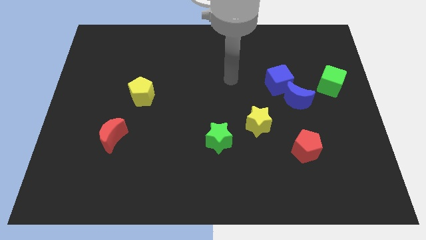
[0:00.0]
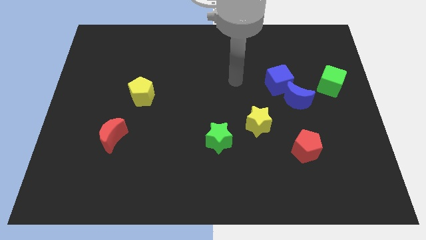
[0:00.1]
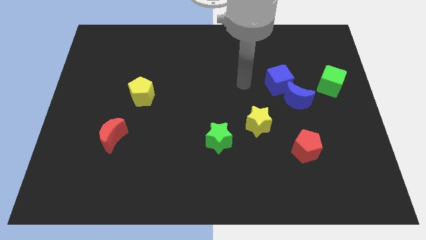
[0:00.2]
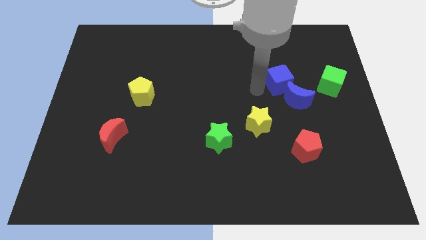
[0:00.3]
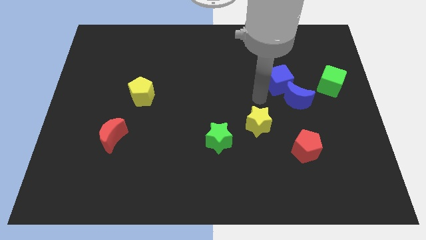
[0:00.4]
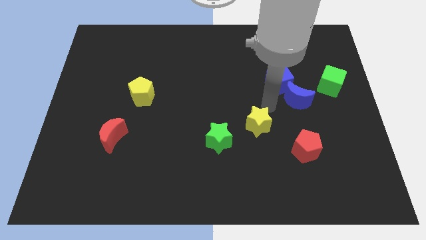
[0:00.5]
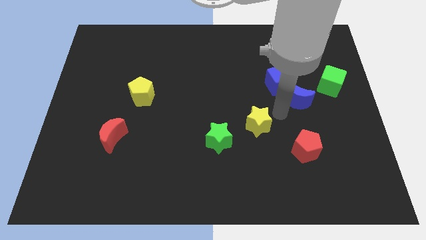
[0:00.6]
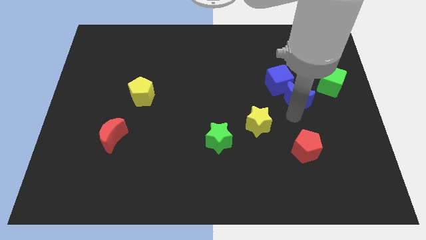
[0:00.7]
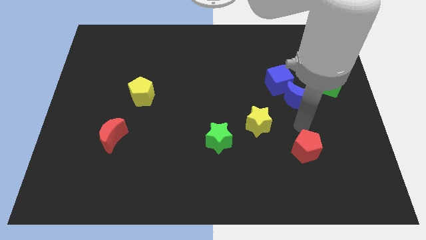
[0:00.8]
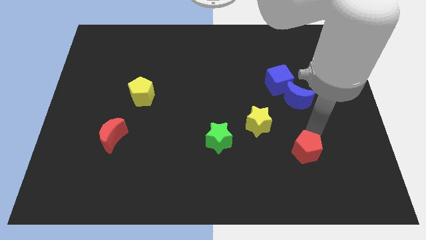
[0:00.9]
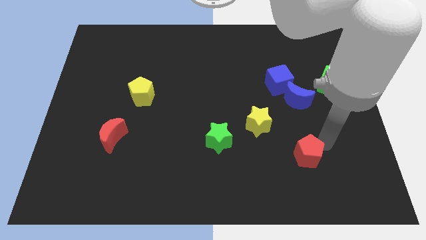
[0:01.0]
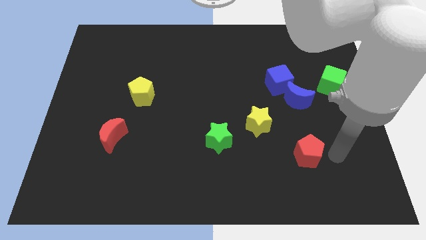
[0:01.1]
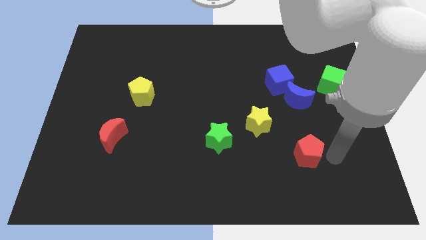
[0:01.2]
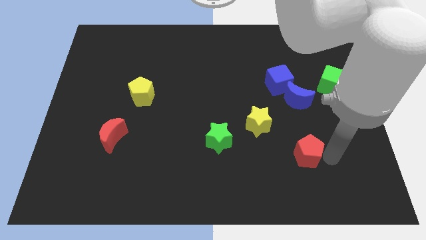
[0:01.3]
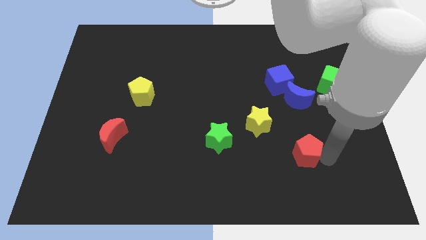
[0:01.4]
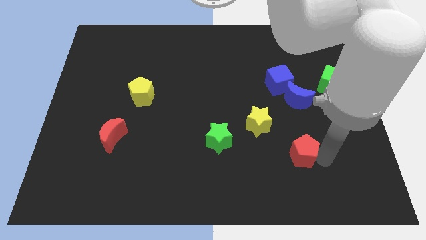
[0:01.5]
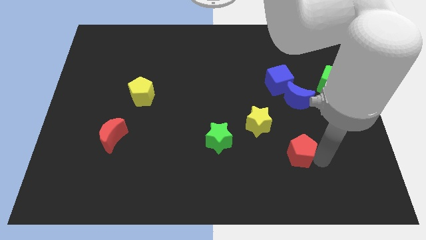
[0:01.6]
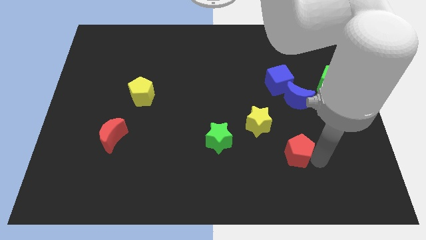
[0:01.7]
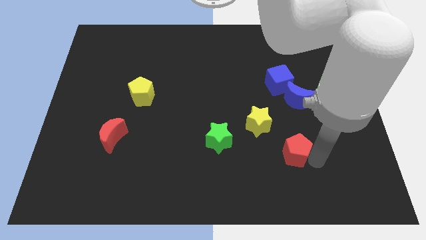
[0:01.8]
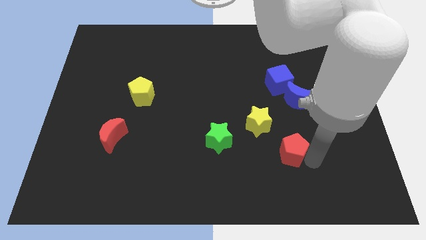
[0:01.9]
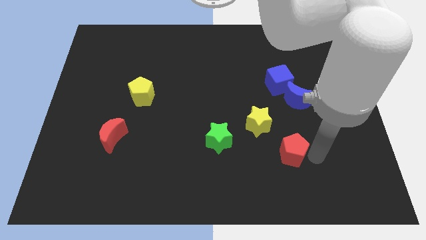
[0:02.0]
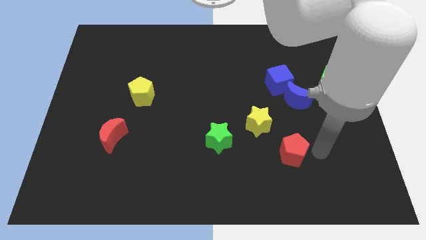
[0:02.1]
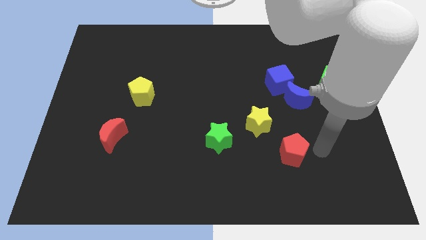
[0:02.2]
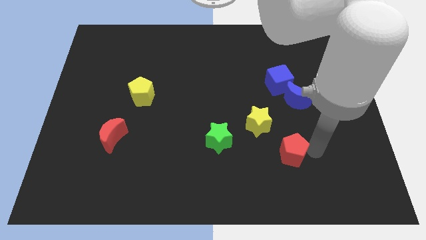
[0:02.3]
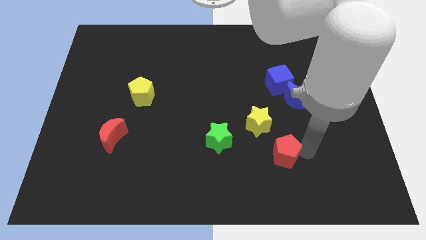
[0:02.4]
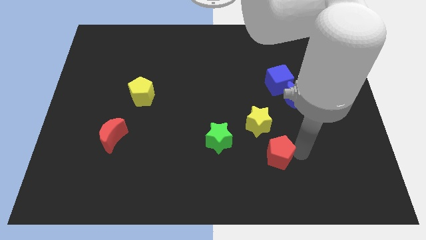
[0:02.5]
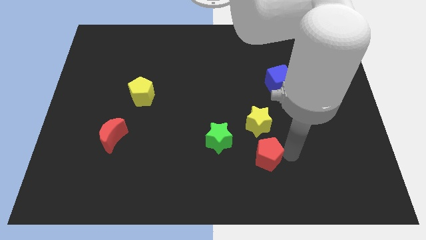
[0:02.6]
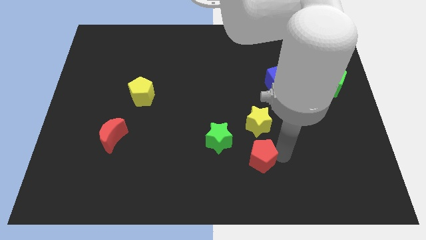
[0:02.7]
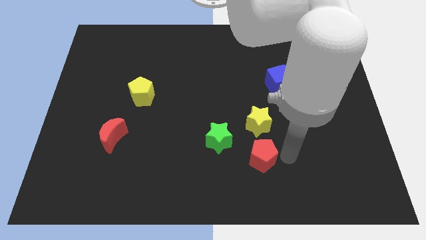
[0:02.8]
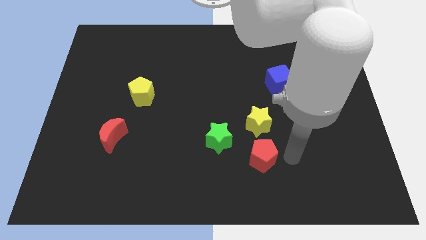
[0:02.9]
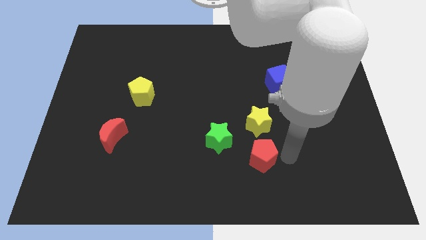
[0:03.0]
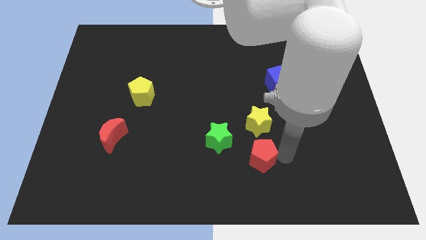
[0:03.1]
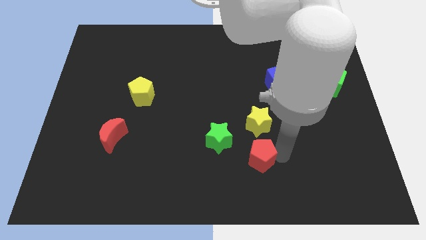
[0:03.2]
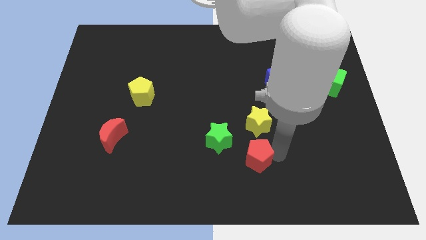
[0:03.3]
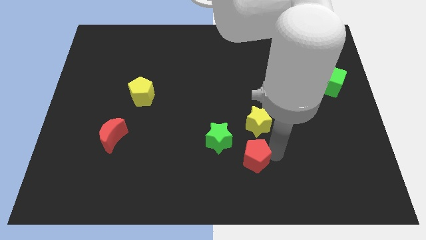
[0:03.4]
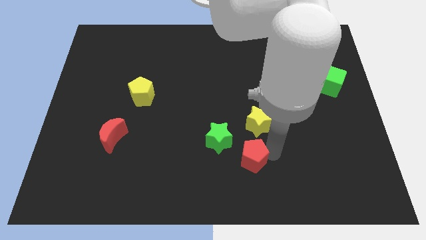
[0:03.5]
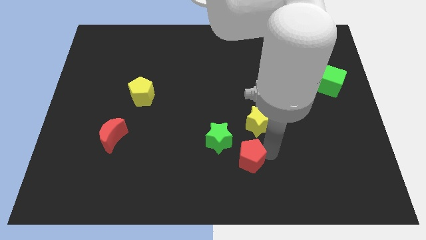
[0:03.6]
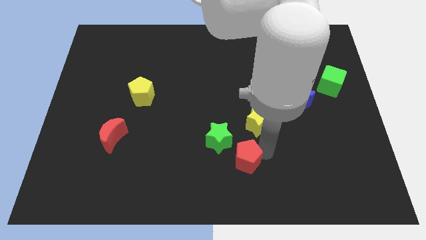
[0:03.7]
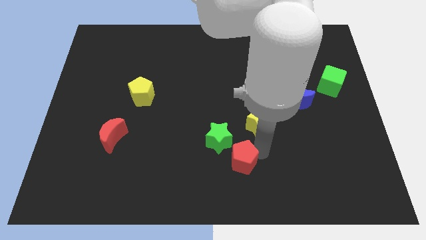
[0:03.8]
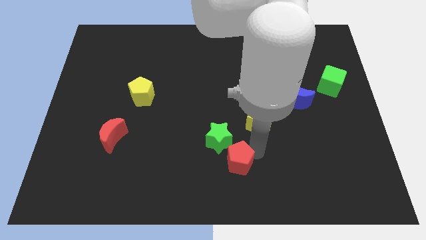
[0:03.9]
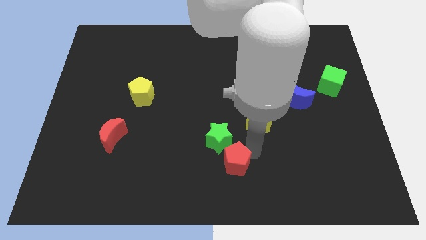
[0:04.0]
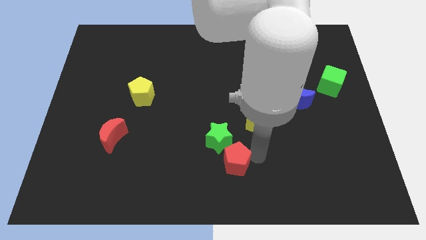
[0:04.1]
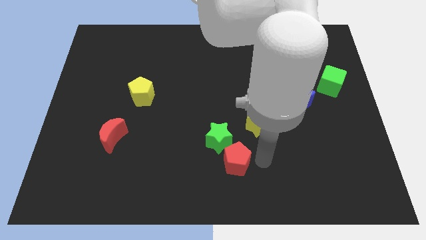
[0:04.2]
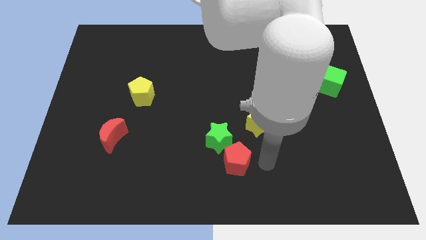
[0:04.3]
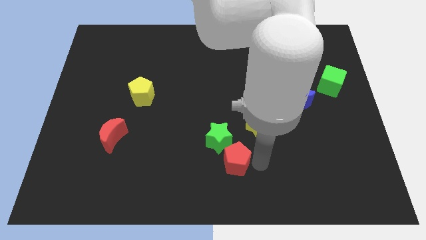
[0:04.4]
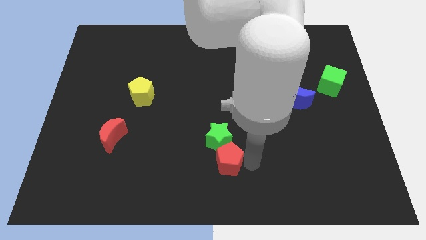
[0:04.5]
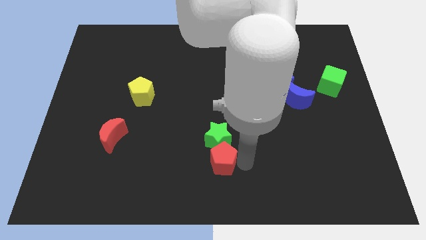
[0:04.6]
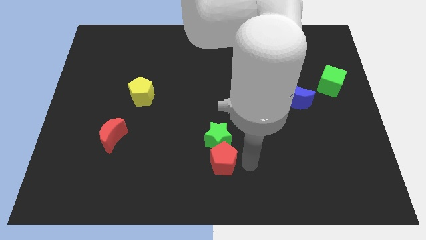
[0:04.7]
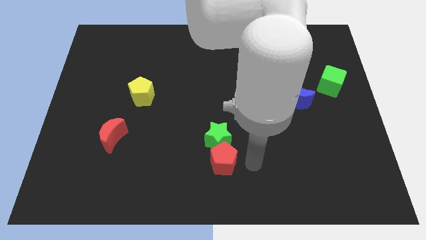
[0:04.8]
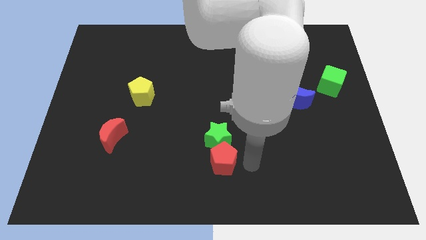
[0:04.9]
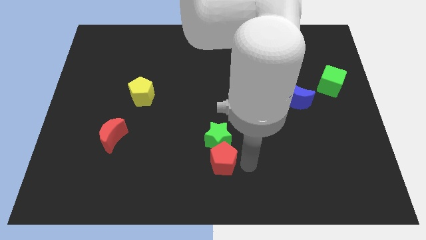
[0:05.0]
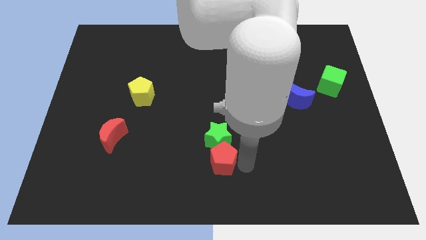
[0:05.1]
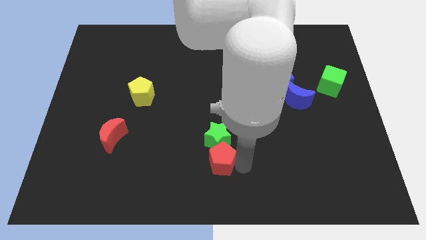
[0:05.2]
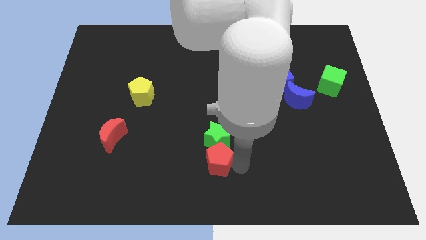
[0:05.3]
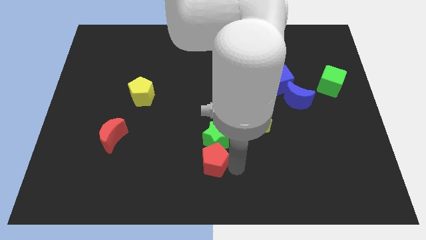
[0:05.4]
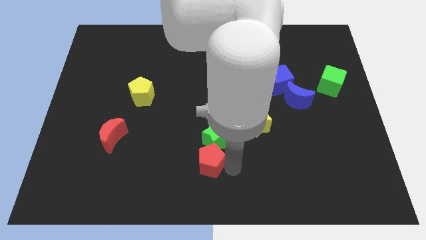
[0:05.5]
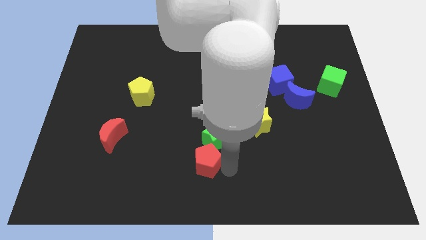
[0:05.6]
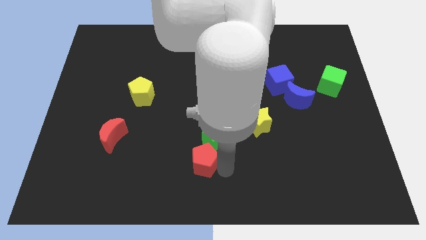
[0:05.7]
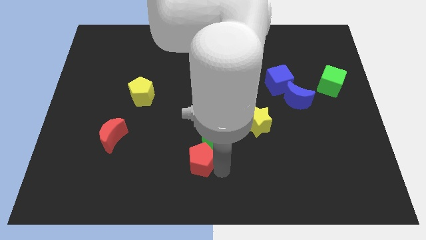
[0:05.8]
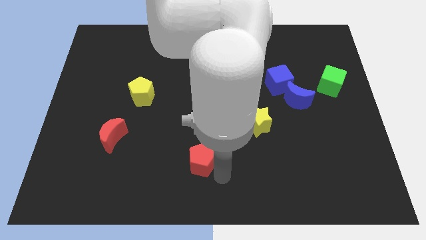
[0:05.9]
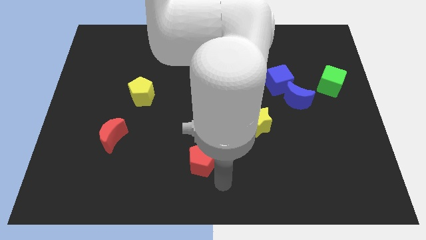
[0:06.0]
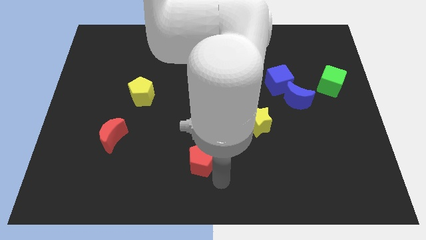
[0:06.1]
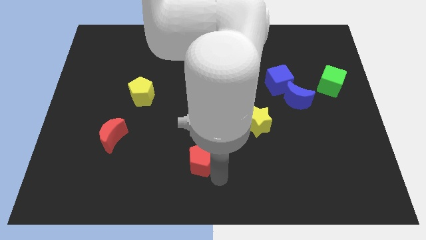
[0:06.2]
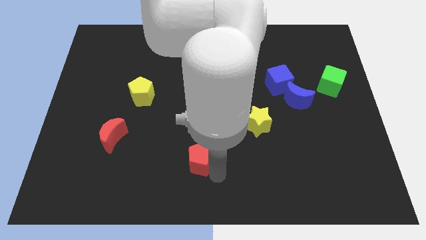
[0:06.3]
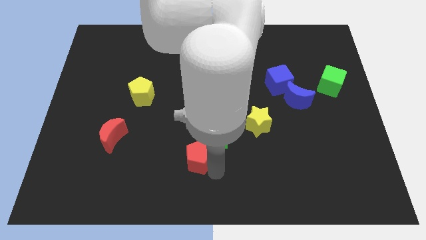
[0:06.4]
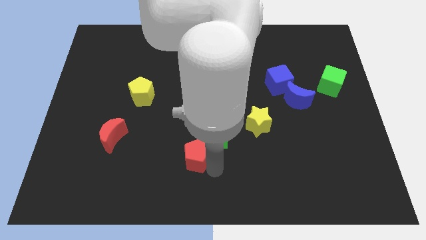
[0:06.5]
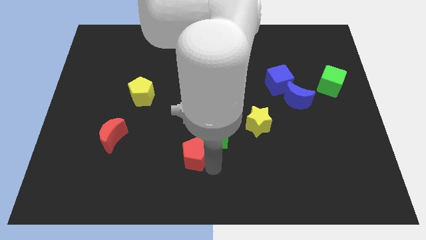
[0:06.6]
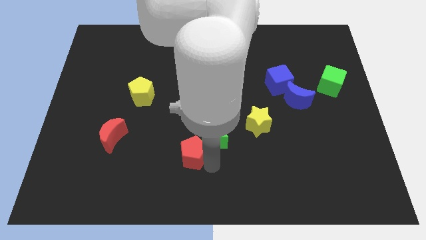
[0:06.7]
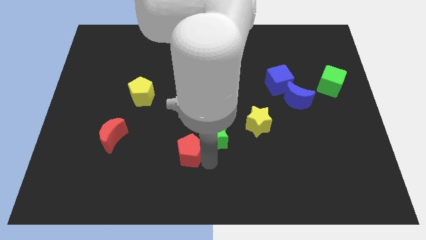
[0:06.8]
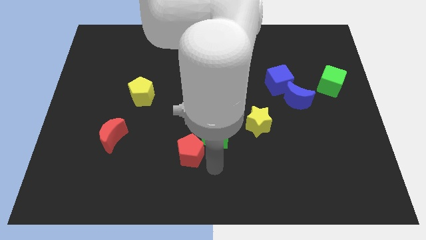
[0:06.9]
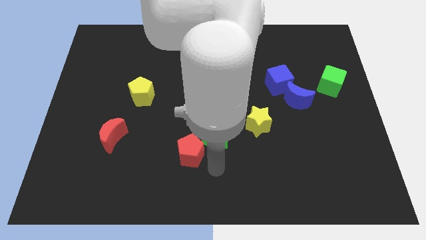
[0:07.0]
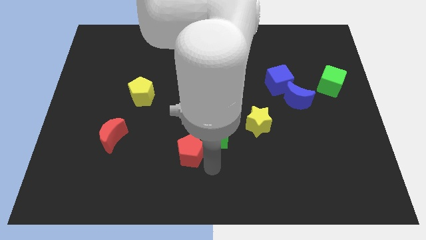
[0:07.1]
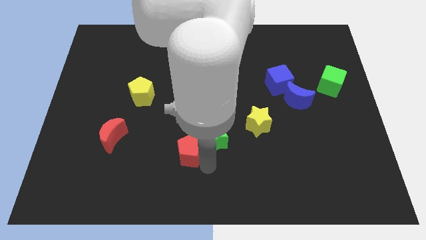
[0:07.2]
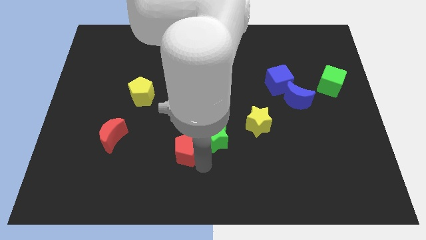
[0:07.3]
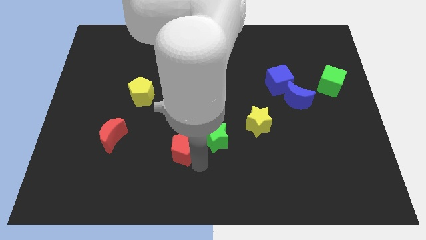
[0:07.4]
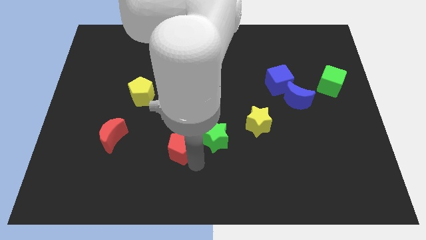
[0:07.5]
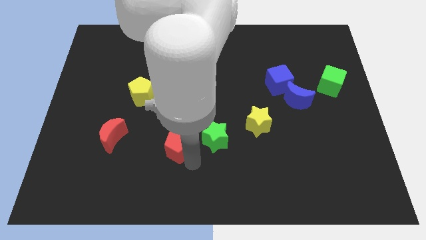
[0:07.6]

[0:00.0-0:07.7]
put the red pentagon just right of the red moon
